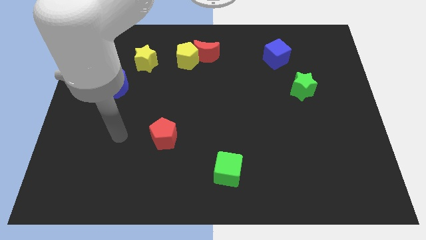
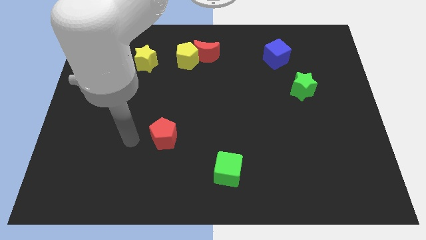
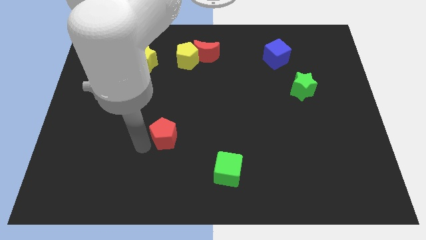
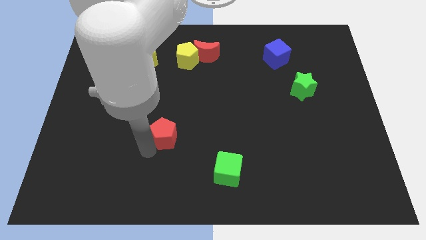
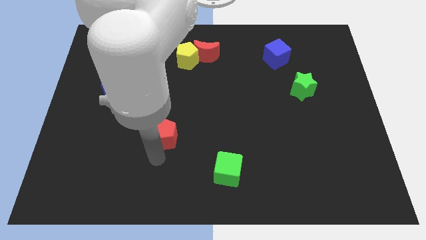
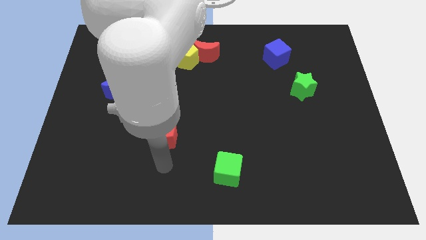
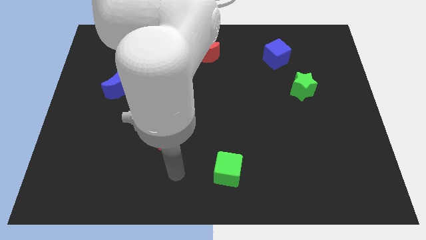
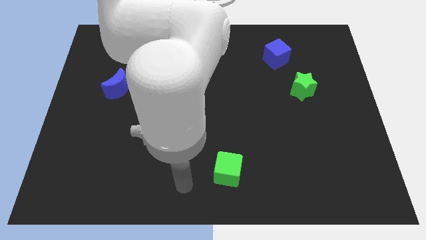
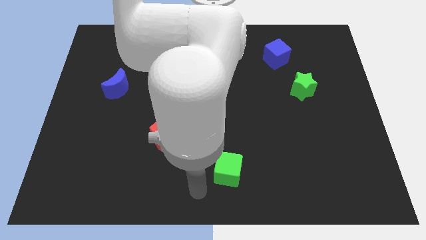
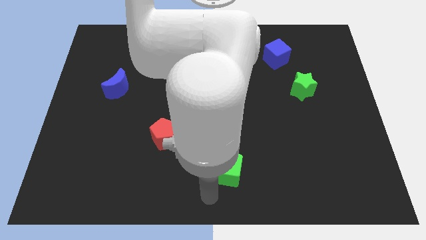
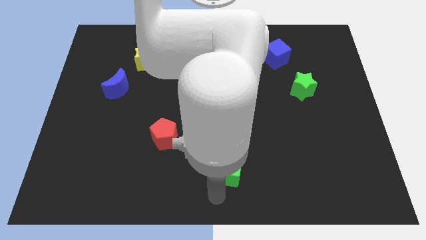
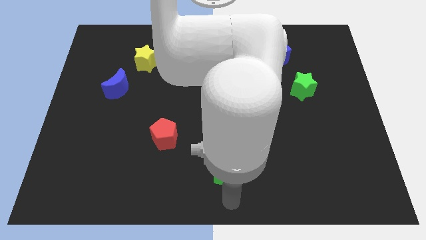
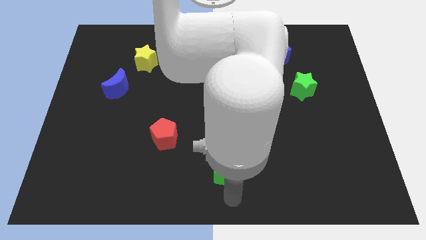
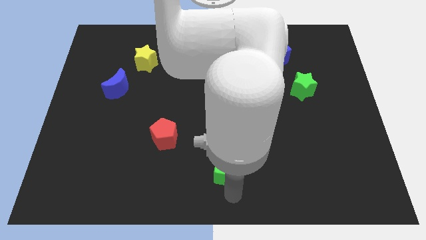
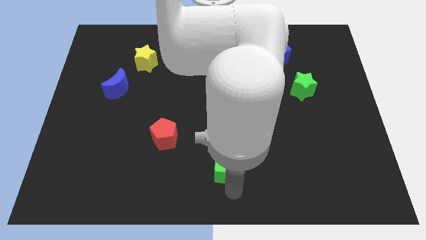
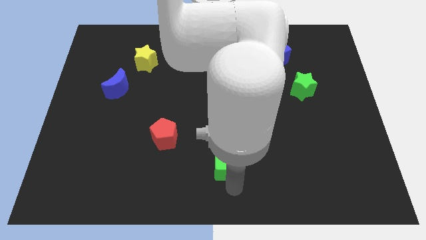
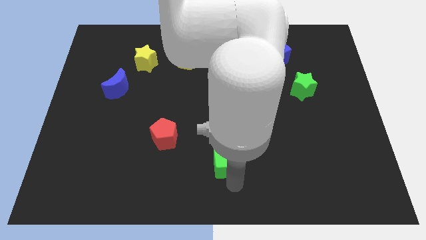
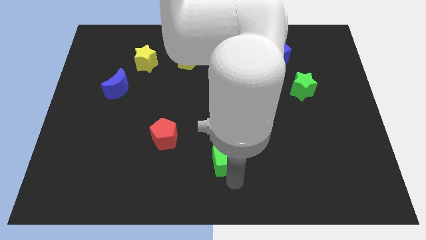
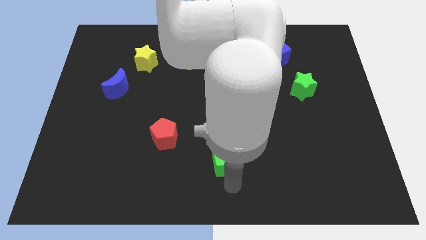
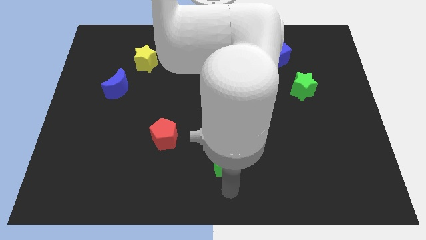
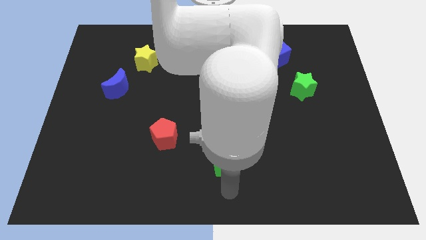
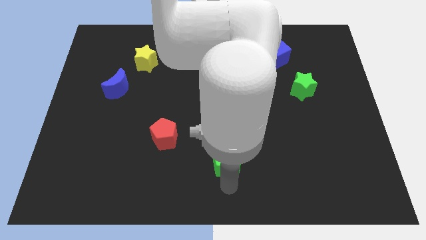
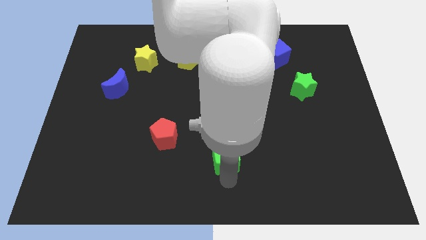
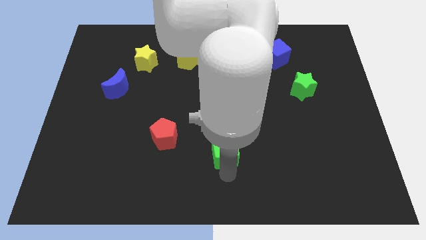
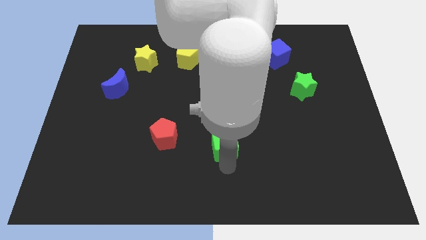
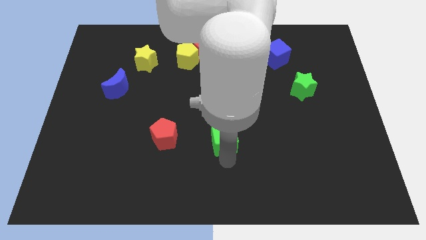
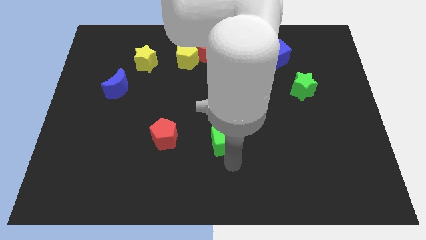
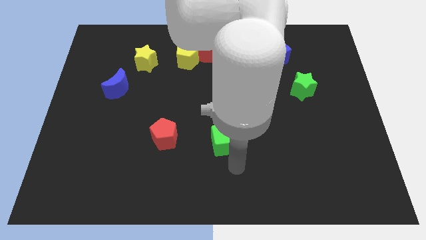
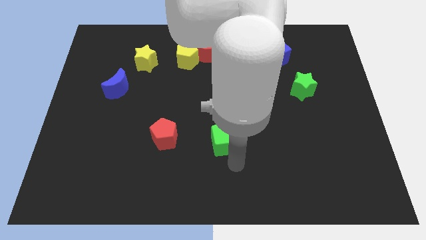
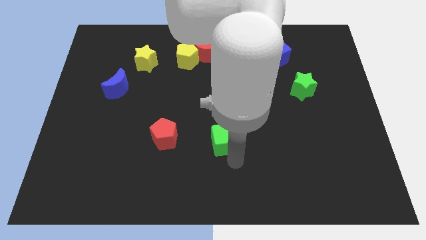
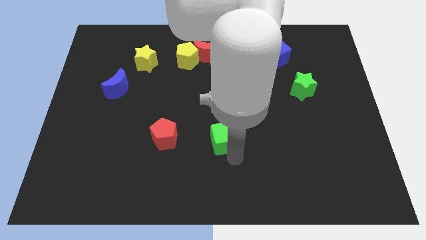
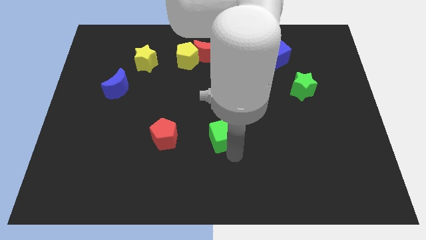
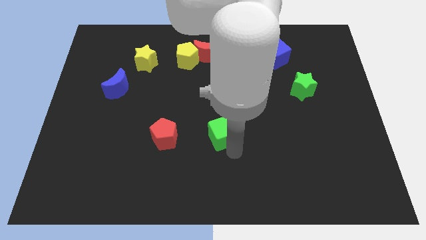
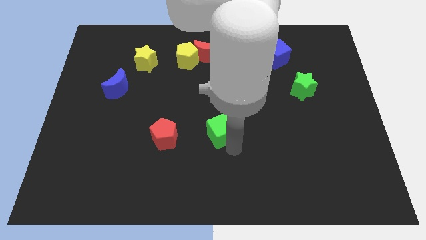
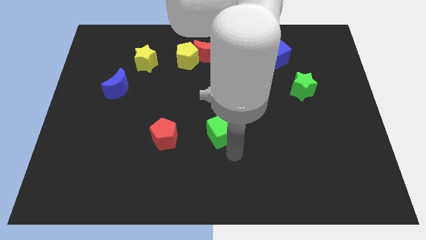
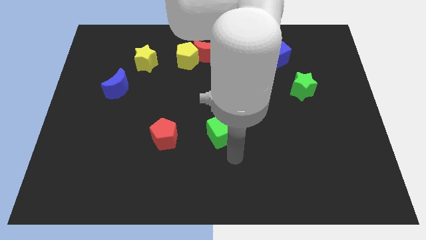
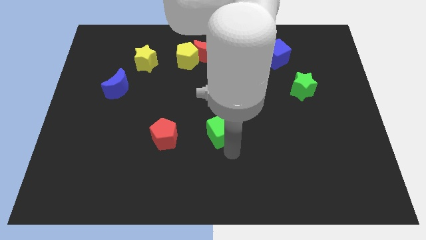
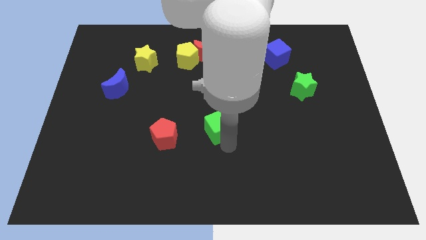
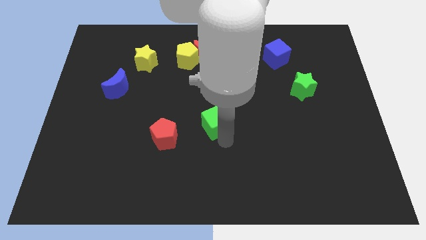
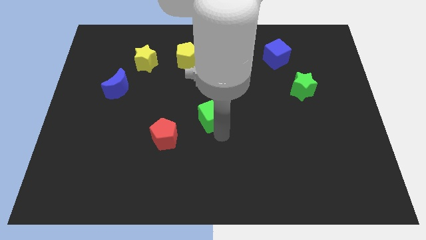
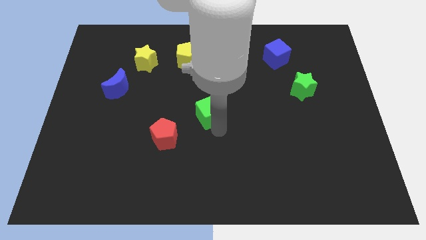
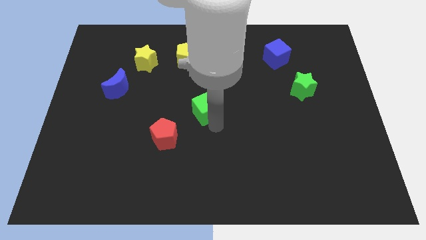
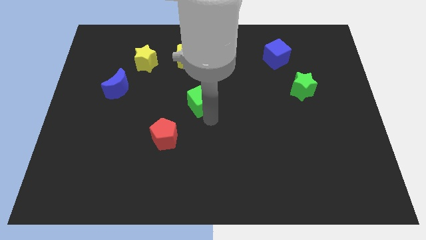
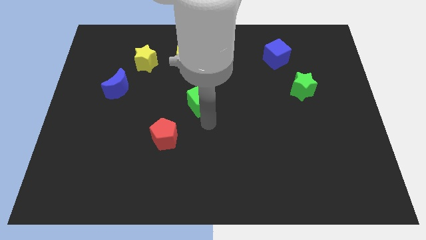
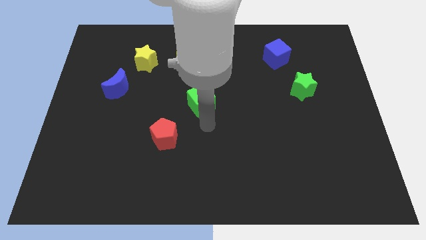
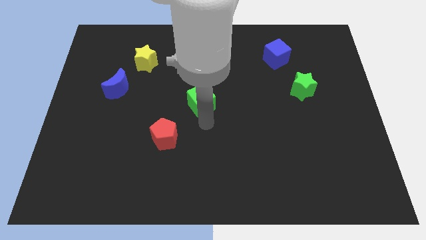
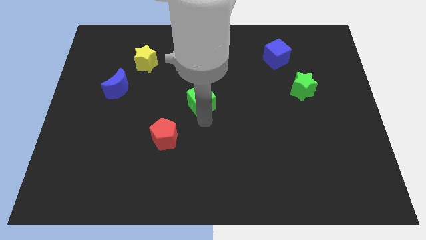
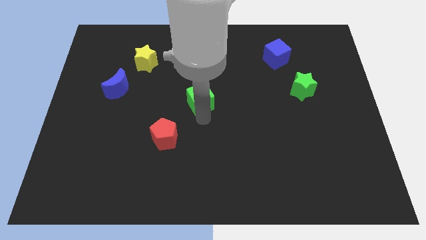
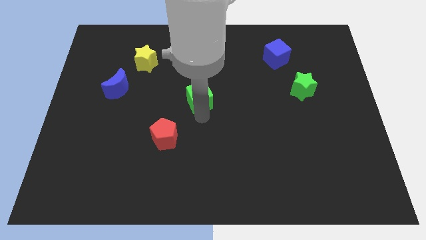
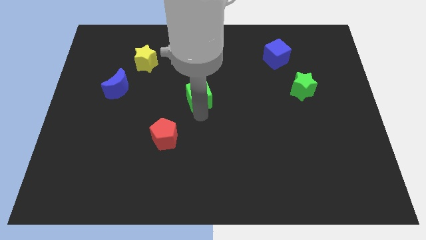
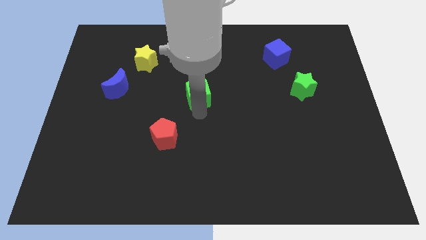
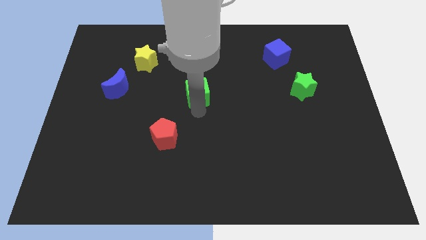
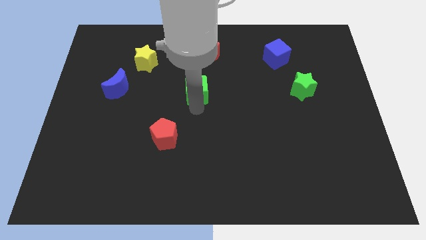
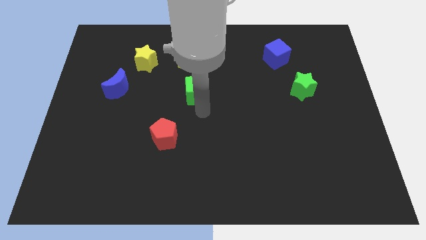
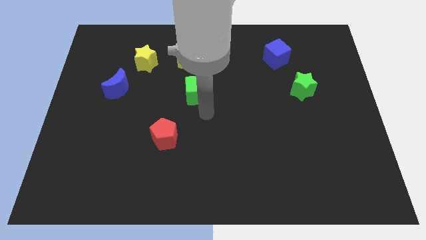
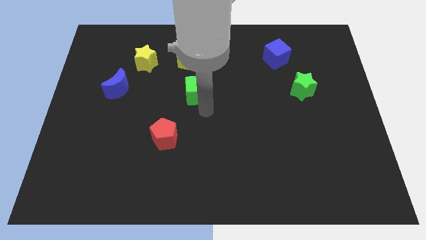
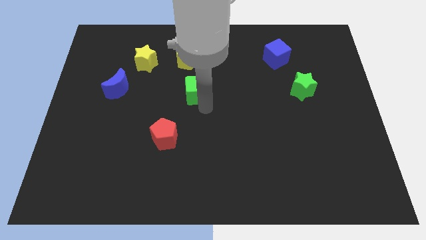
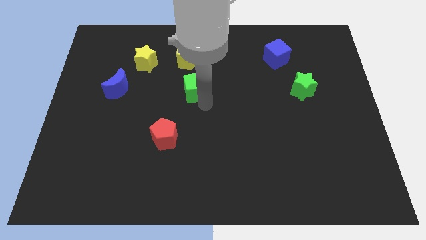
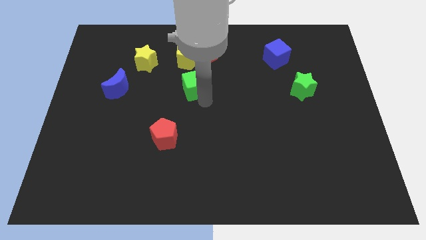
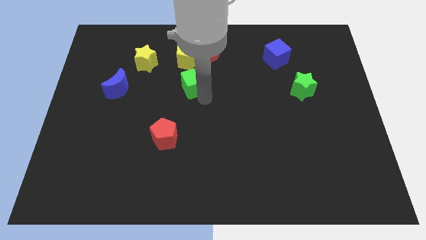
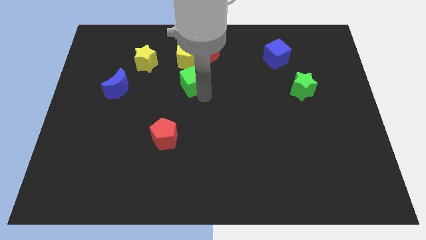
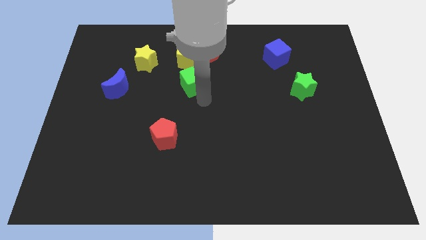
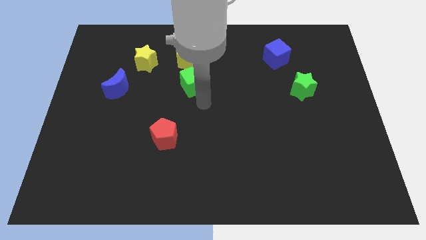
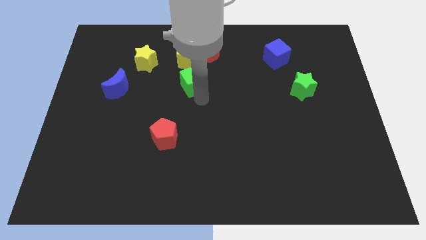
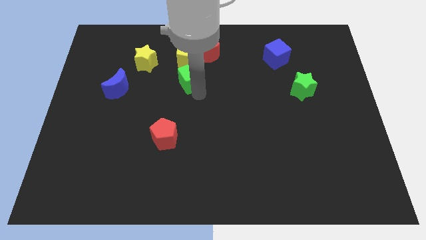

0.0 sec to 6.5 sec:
put the green cube diagonally down and to the left of the red moon

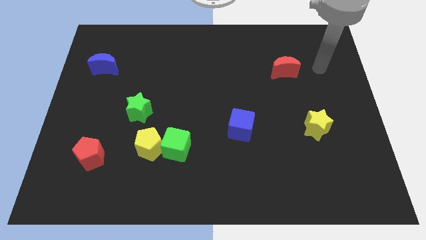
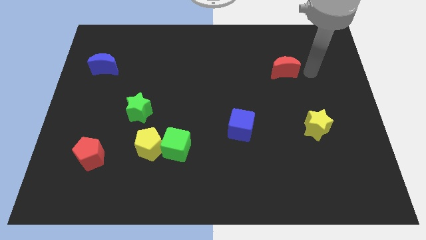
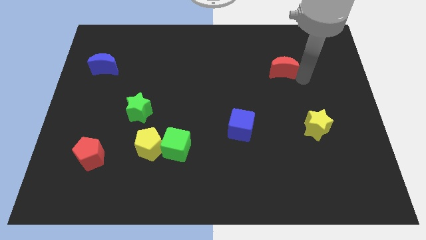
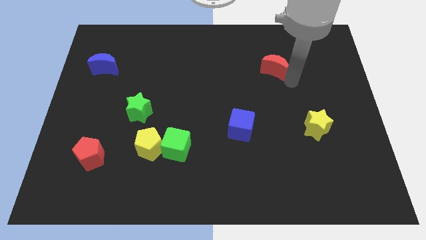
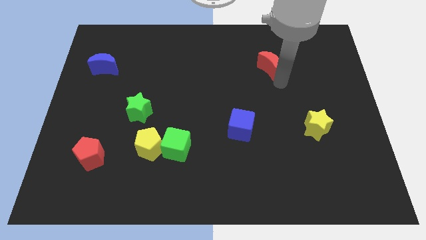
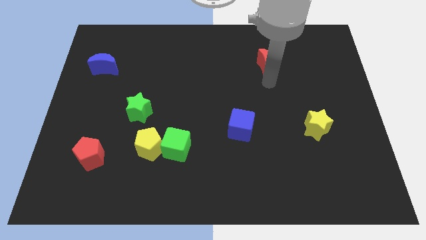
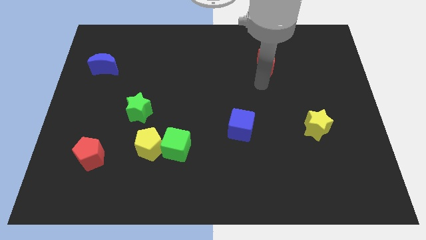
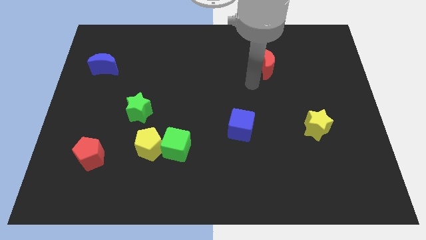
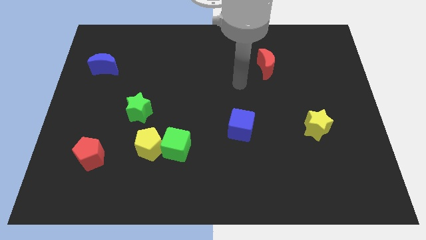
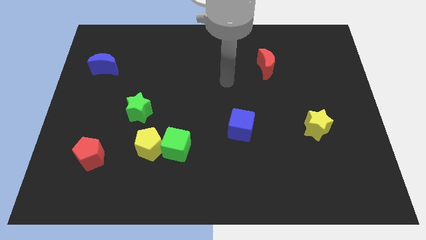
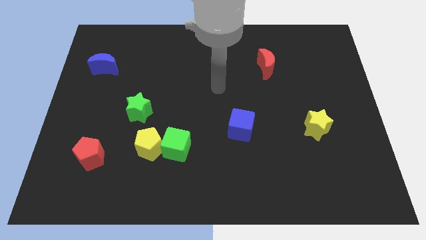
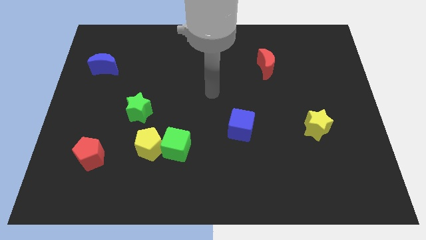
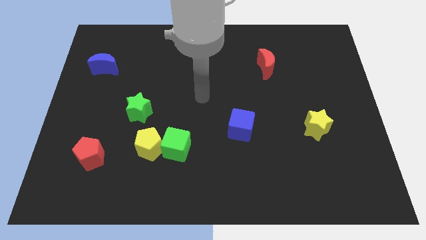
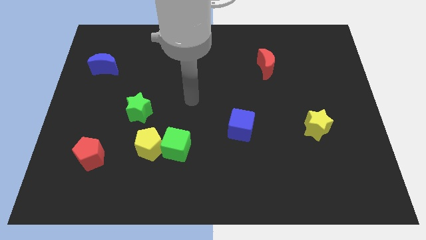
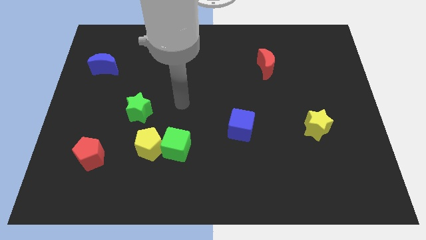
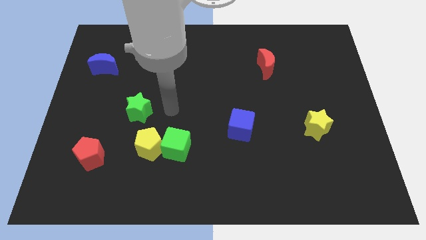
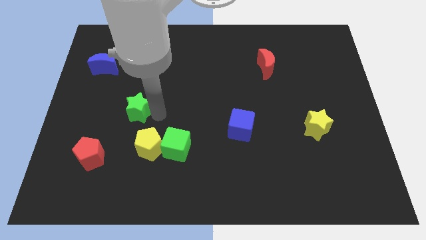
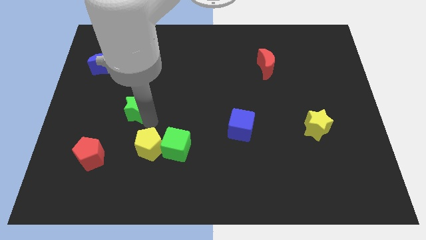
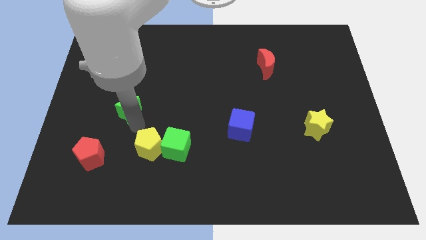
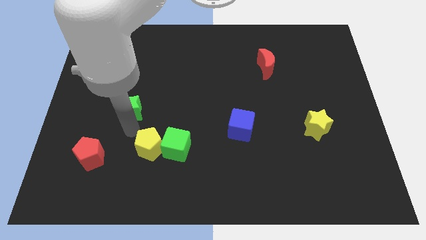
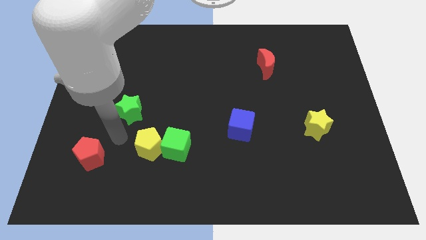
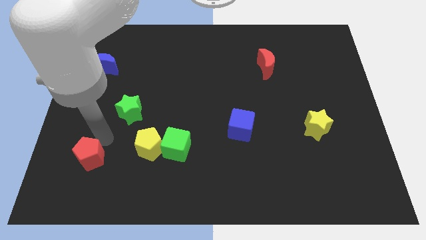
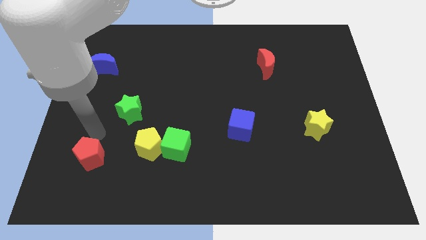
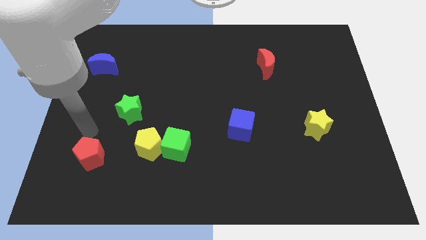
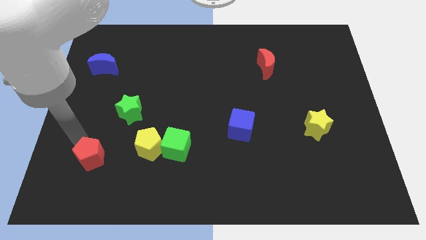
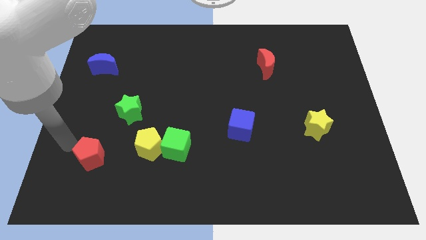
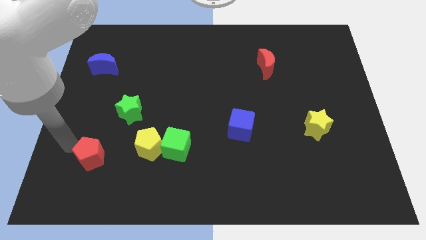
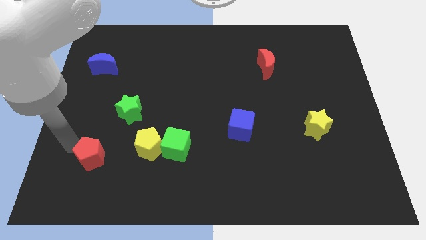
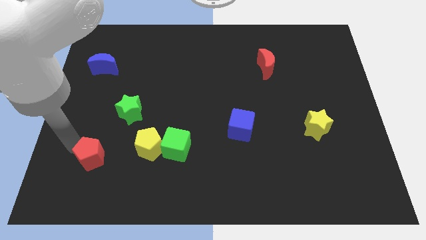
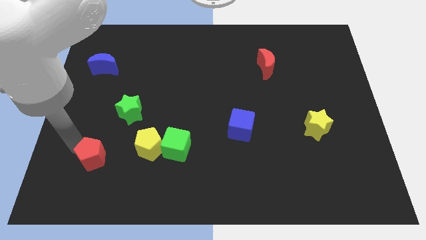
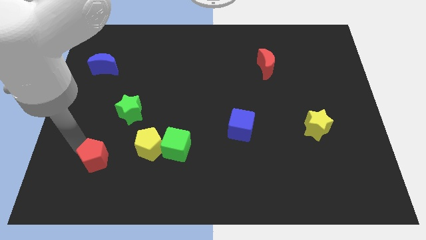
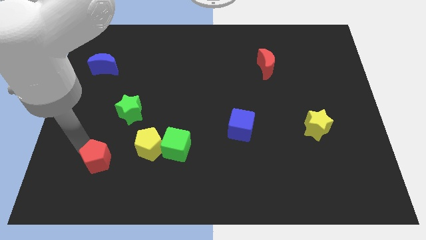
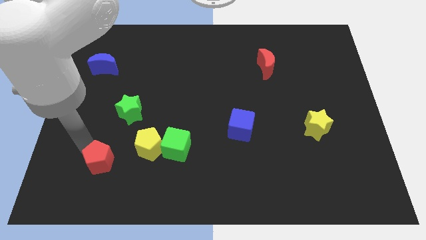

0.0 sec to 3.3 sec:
move the red pentagon to the bottom left of the yellow pentagon
